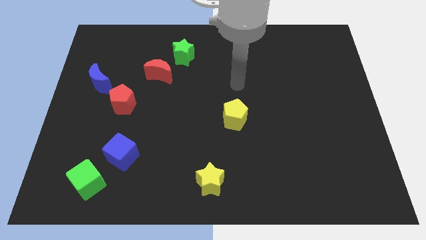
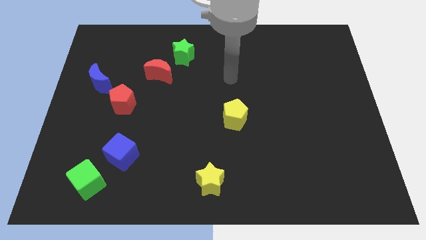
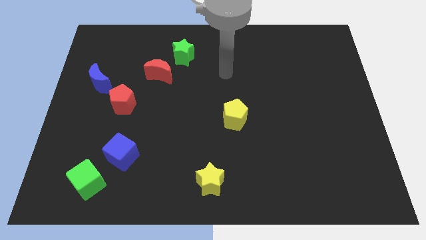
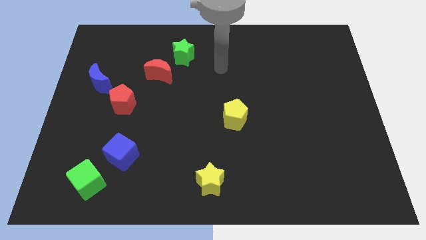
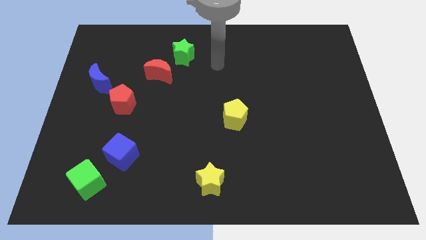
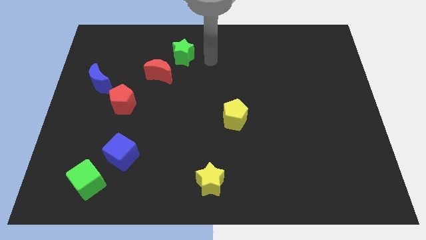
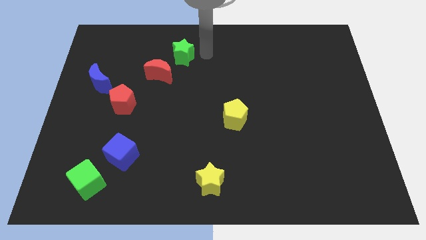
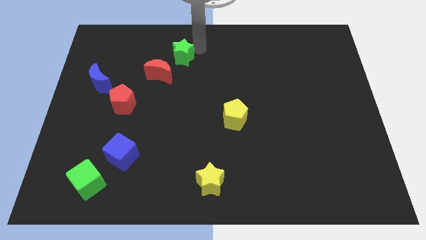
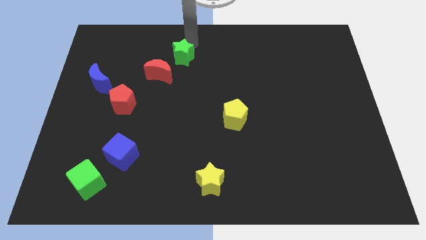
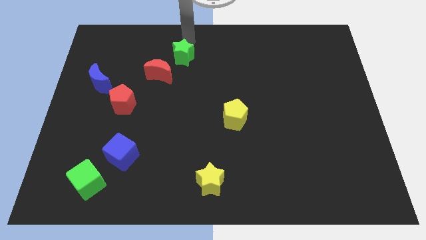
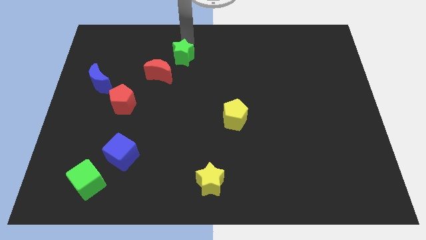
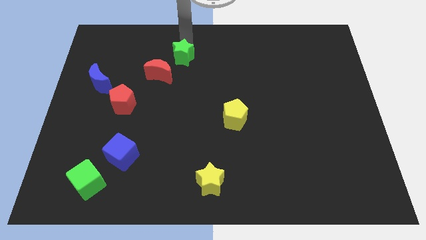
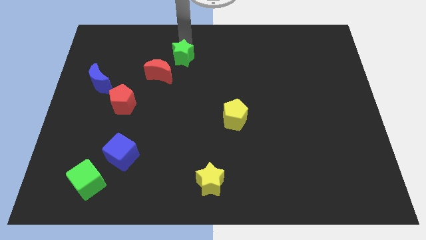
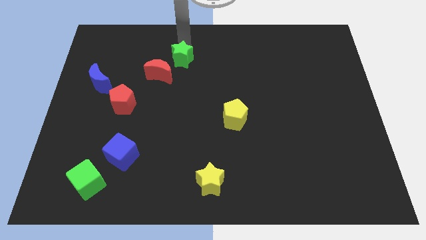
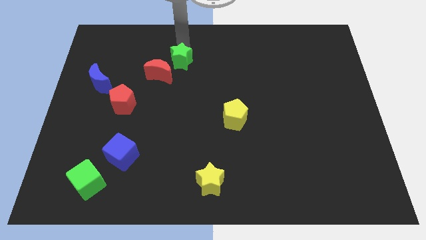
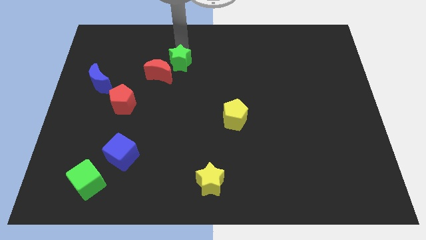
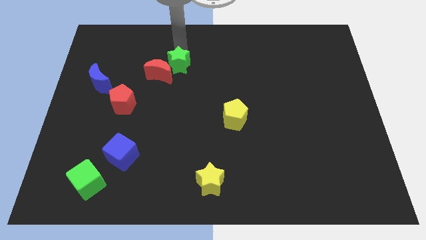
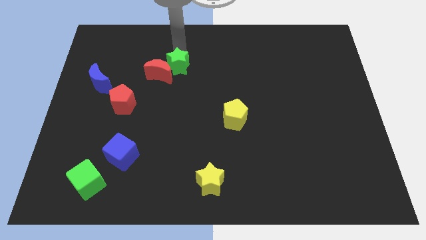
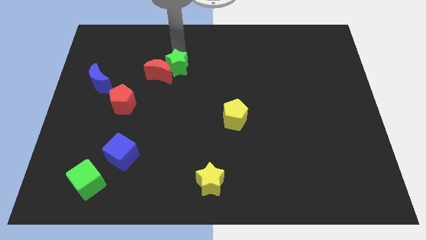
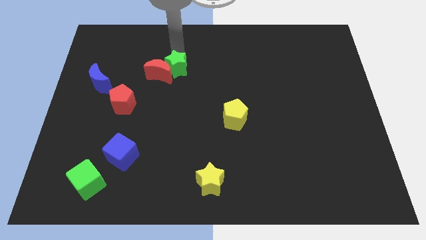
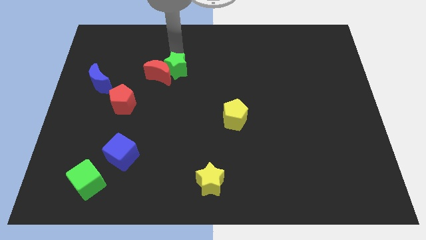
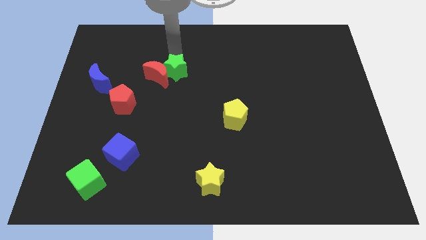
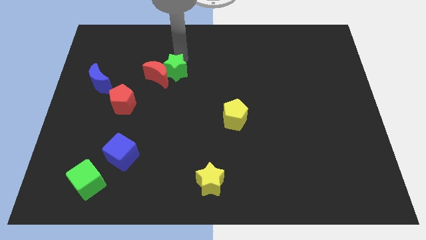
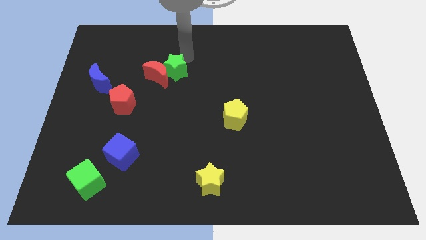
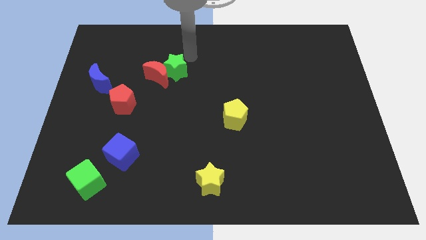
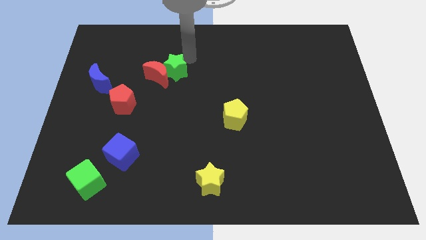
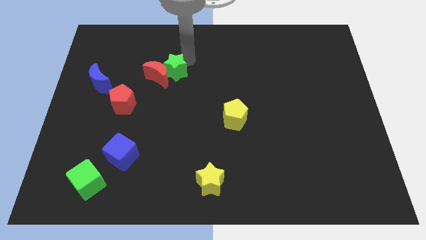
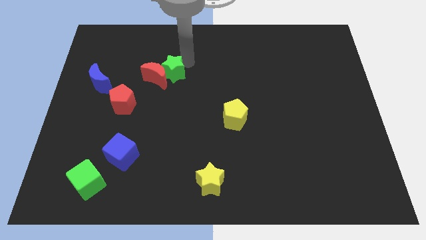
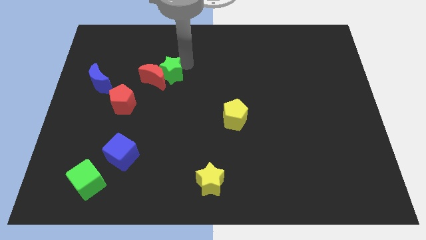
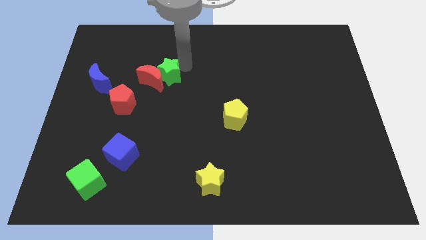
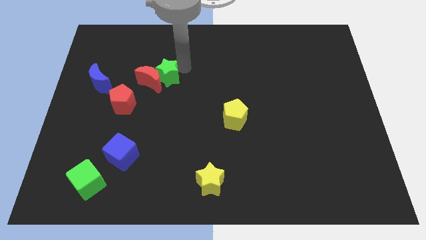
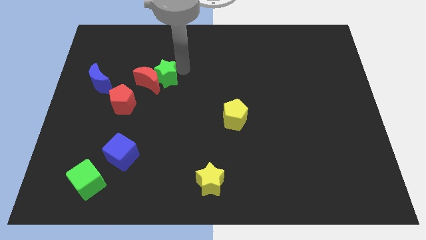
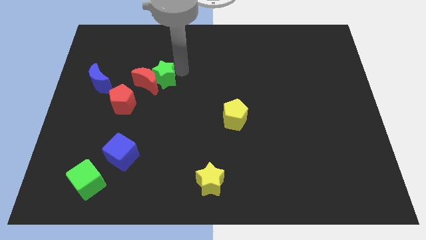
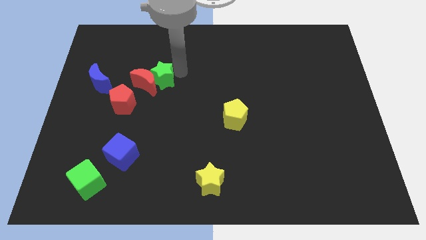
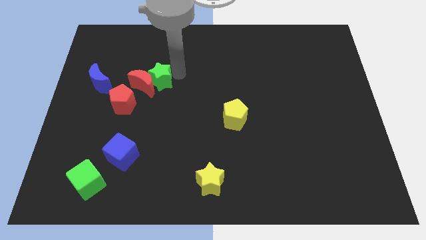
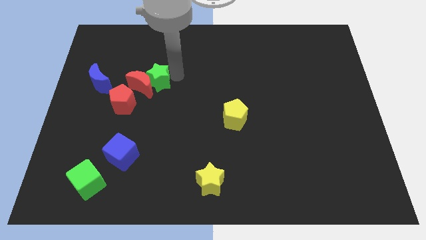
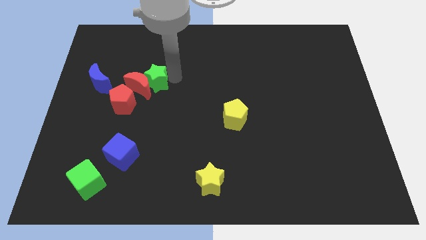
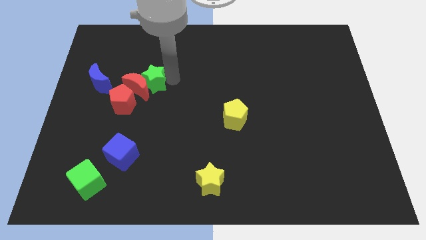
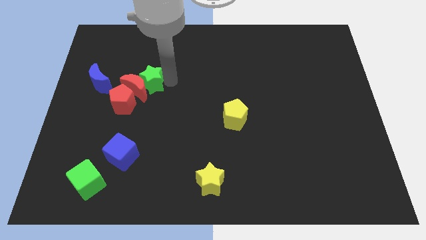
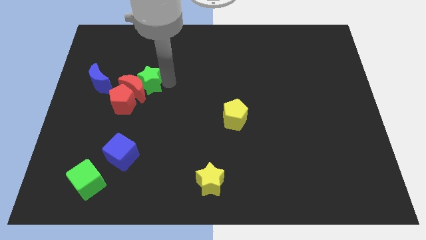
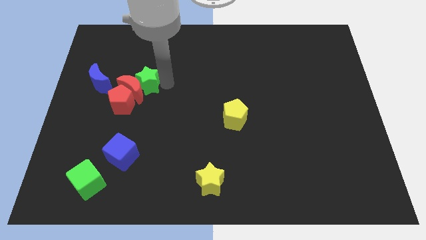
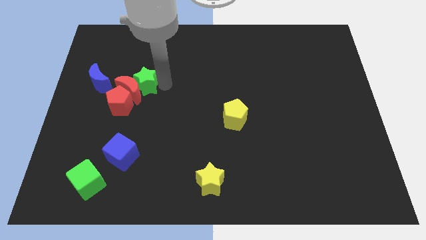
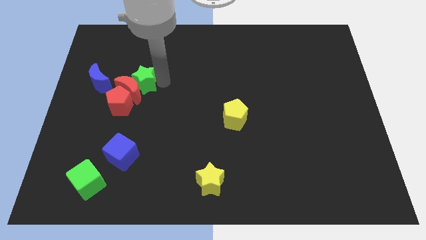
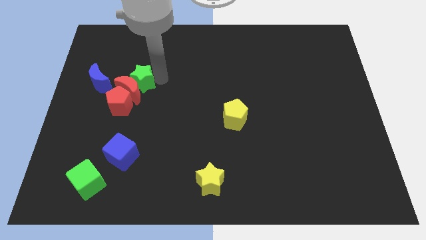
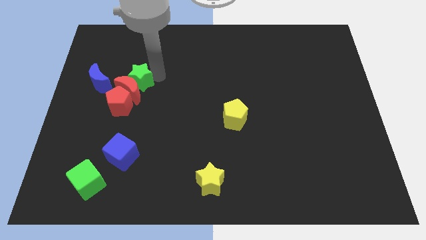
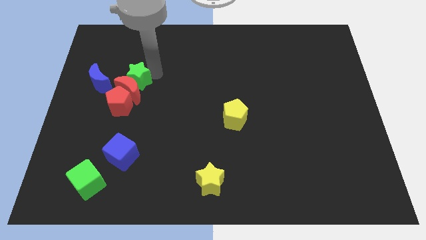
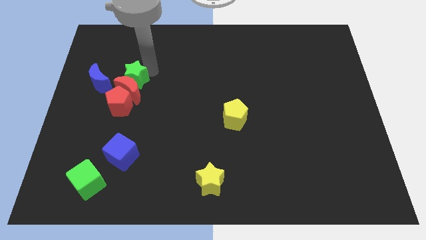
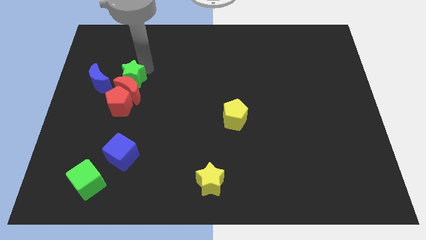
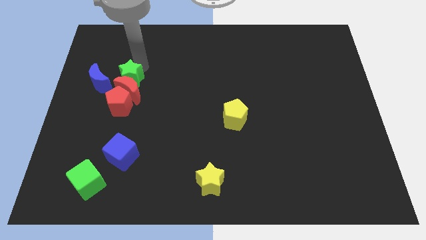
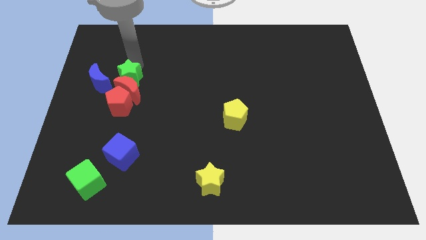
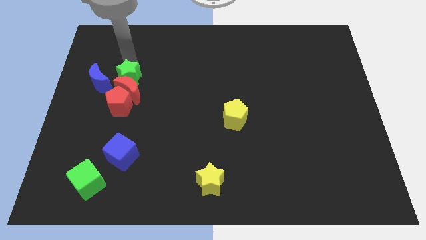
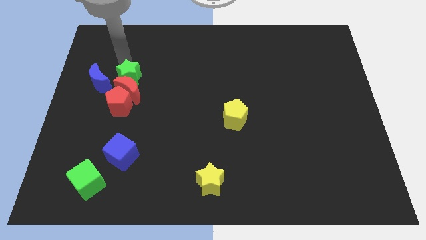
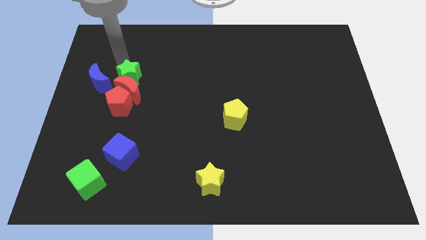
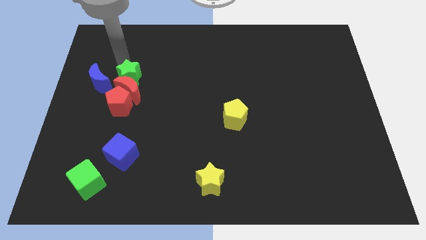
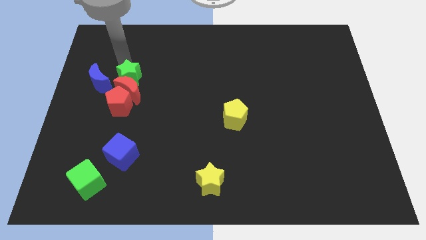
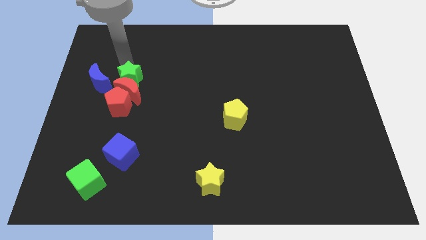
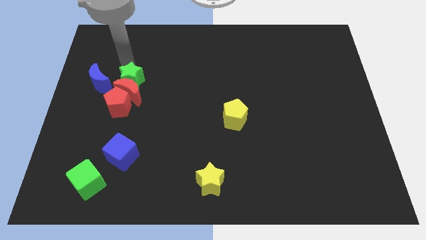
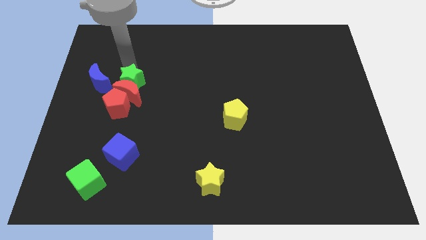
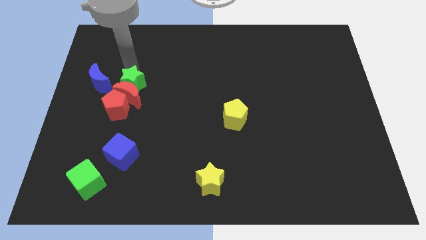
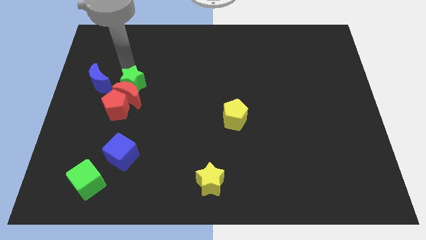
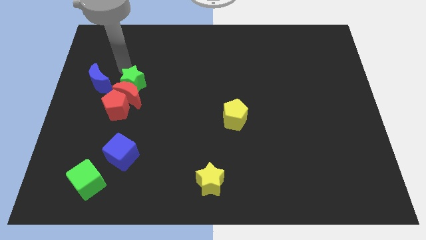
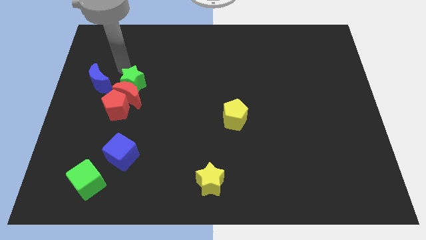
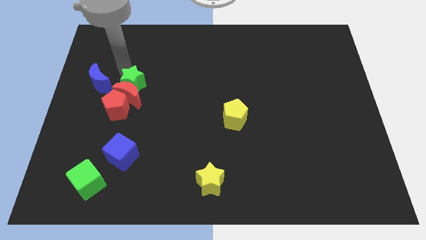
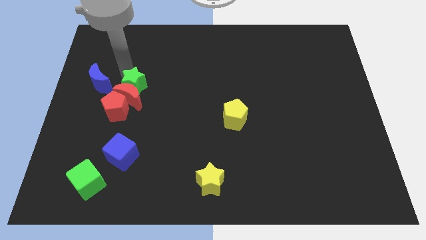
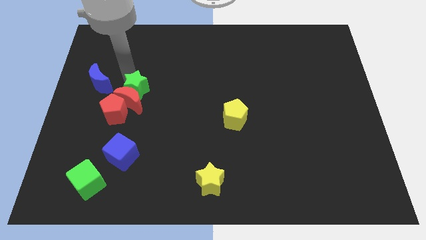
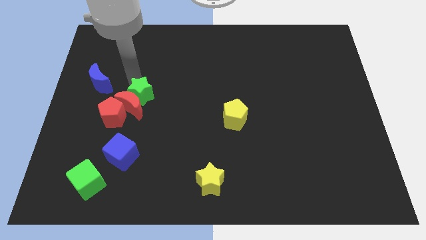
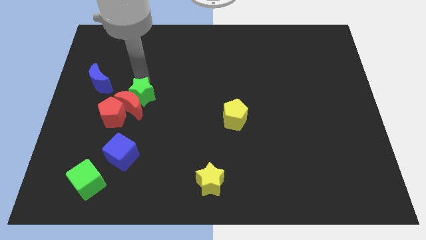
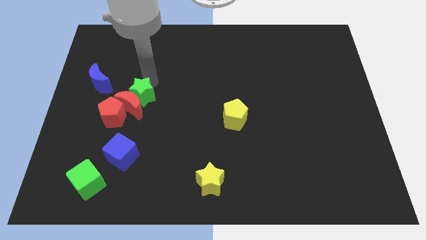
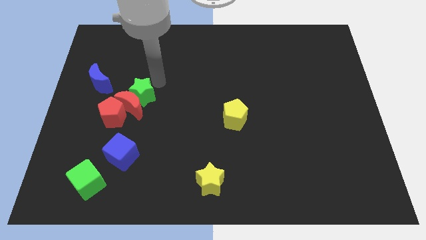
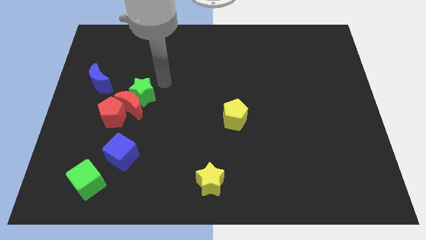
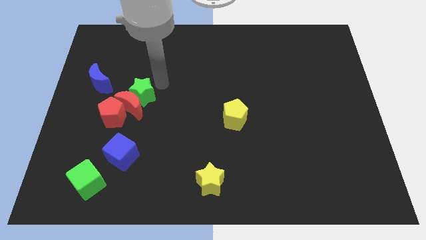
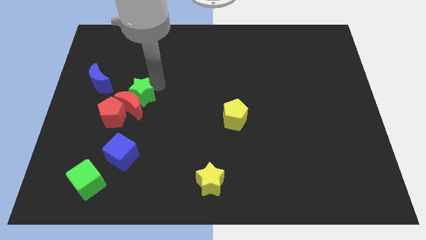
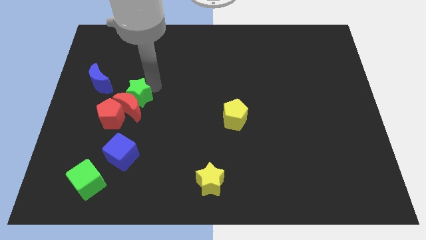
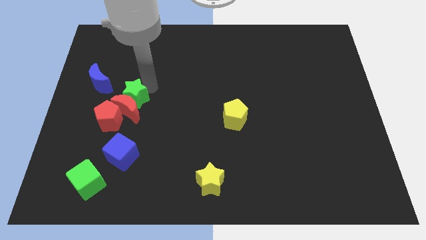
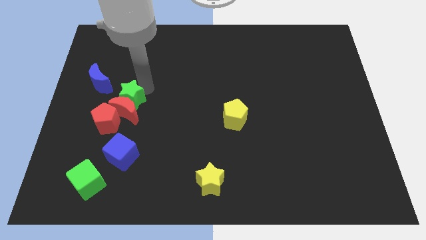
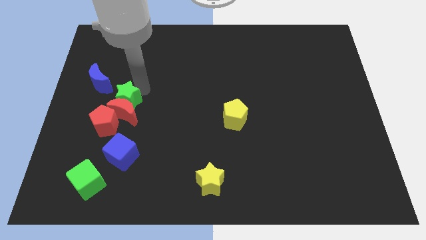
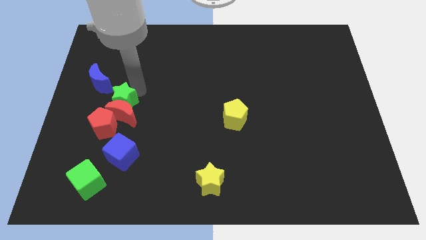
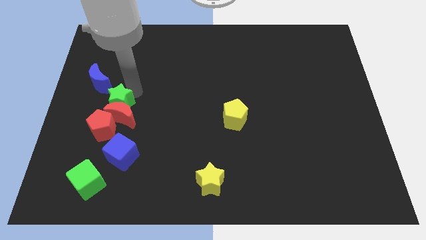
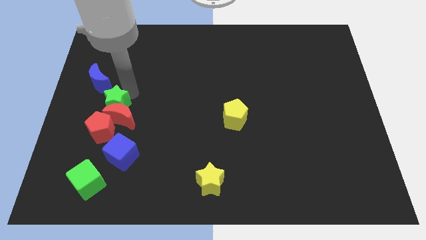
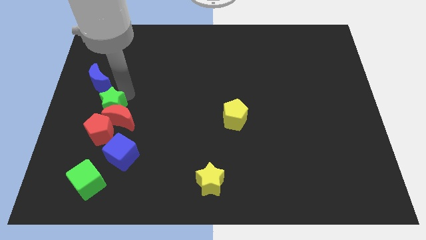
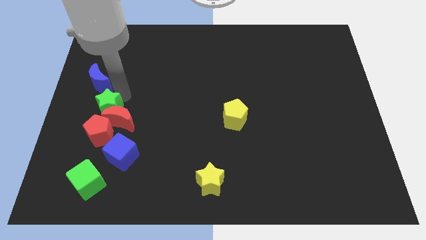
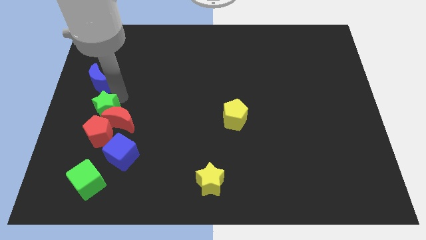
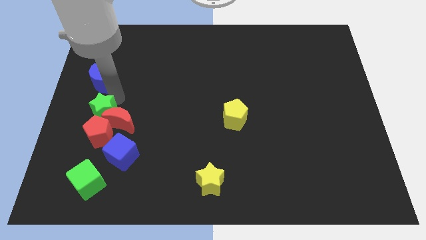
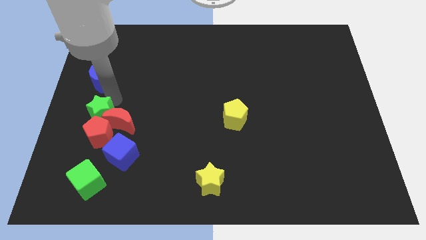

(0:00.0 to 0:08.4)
move the green star close to the red pentagon
